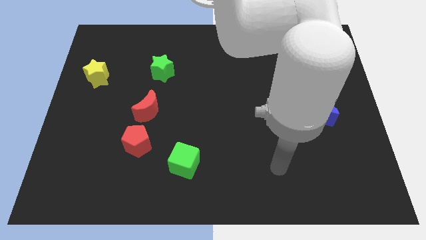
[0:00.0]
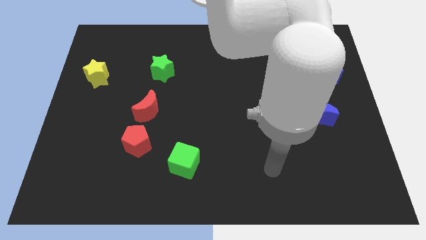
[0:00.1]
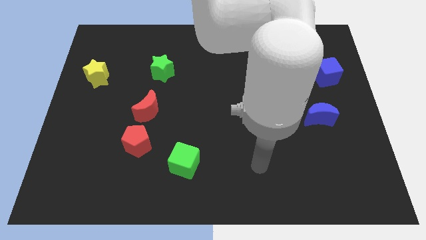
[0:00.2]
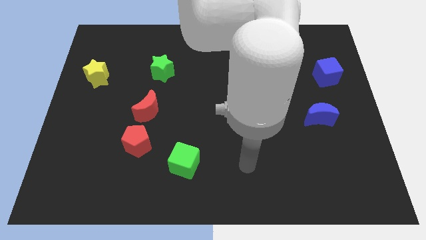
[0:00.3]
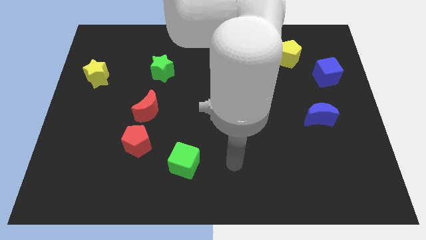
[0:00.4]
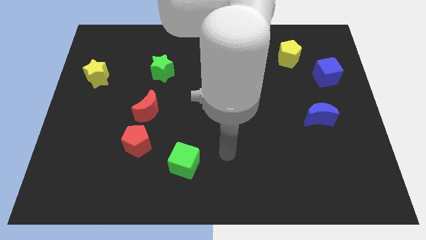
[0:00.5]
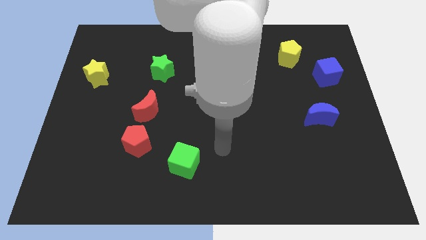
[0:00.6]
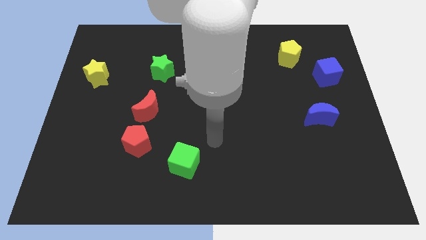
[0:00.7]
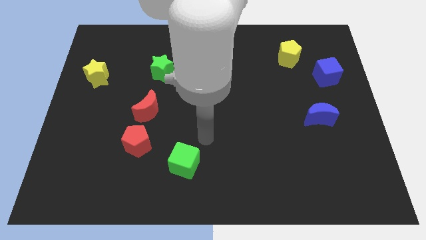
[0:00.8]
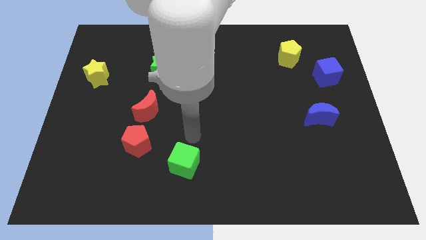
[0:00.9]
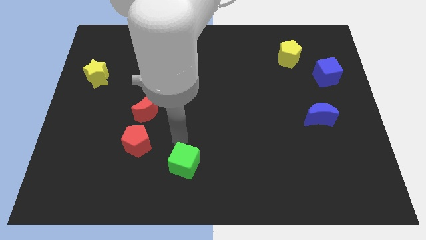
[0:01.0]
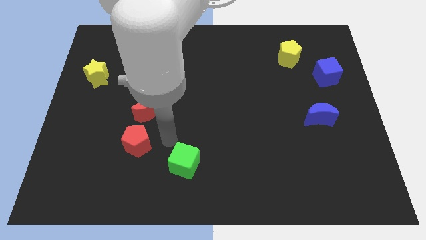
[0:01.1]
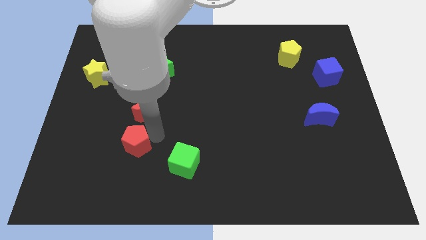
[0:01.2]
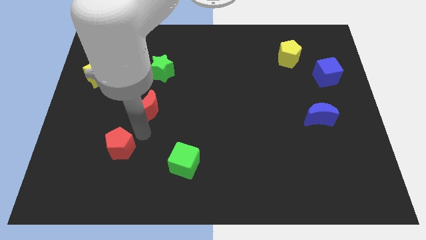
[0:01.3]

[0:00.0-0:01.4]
separate the red moon from the red pentagon

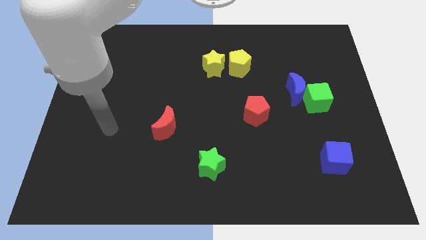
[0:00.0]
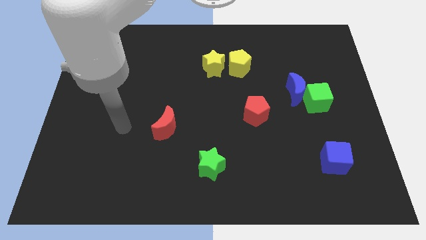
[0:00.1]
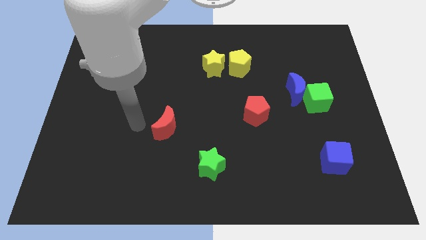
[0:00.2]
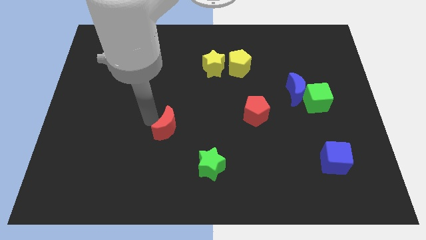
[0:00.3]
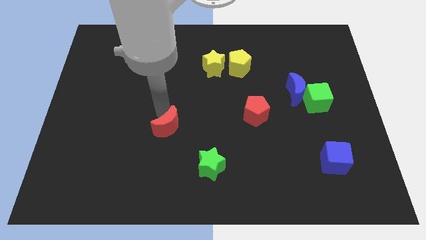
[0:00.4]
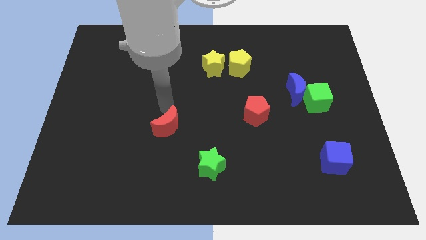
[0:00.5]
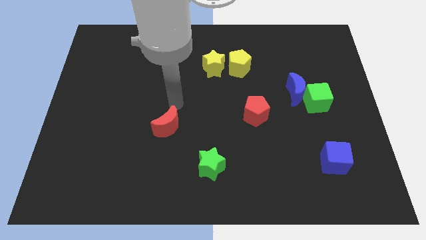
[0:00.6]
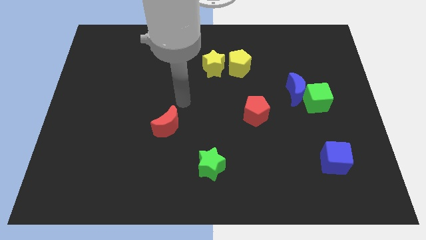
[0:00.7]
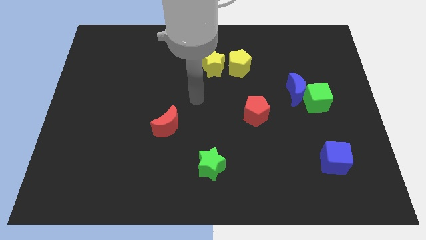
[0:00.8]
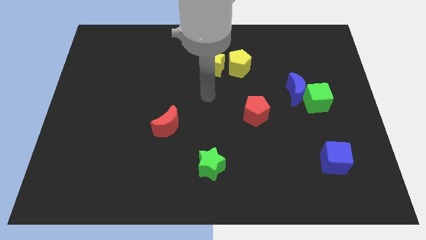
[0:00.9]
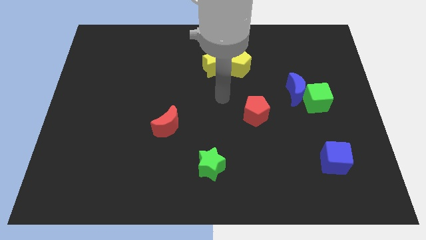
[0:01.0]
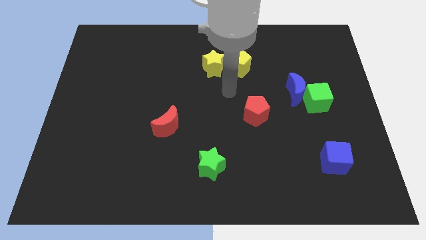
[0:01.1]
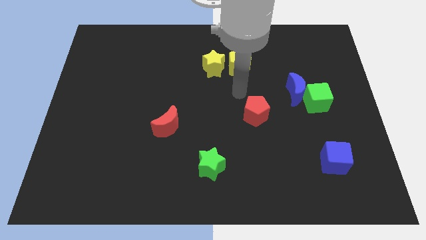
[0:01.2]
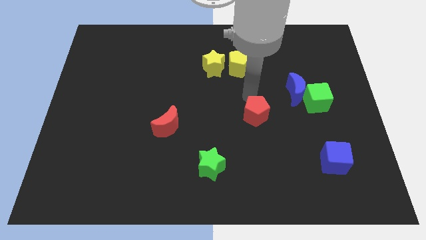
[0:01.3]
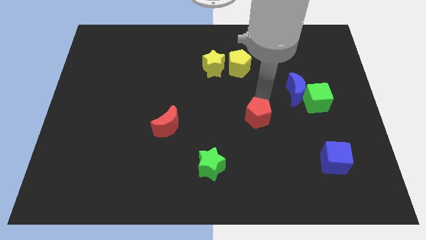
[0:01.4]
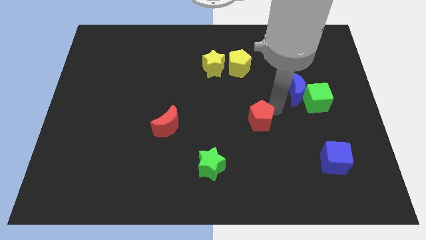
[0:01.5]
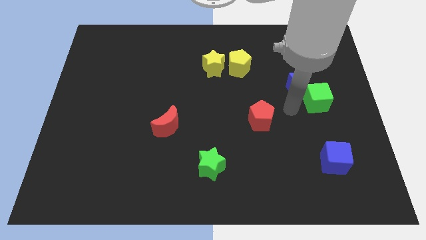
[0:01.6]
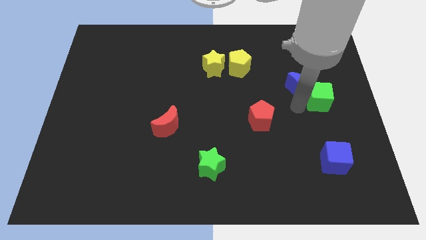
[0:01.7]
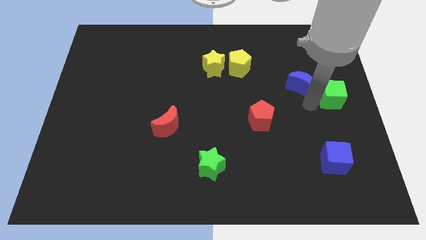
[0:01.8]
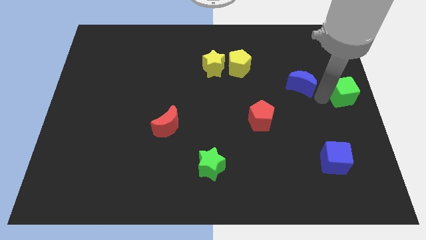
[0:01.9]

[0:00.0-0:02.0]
pull the blue moon apart from the green cube

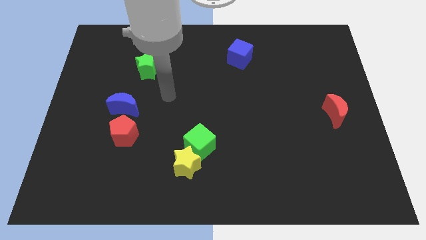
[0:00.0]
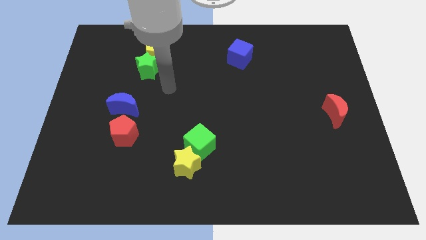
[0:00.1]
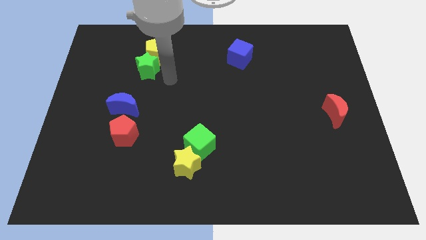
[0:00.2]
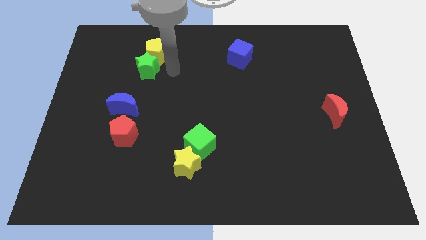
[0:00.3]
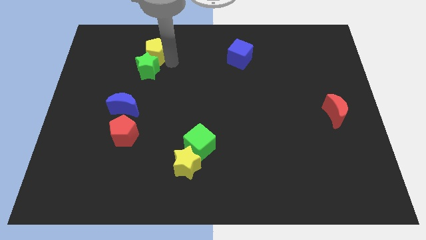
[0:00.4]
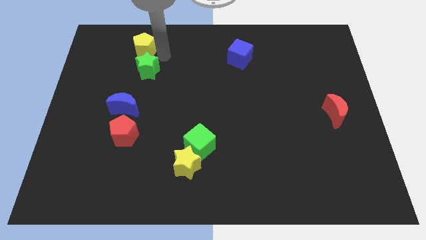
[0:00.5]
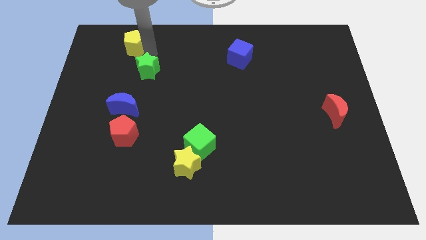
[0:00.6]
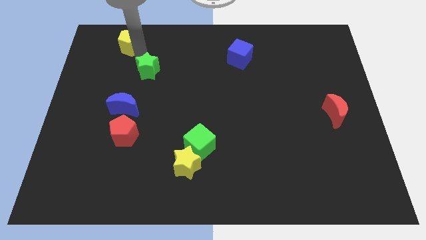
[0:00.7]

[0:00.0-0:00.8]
pull the green star apart from the yellow pentagon

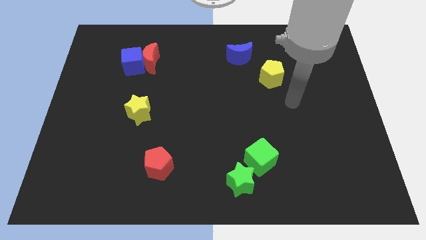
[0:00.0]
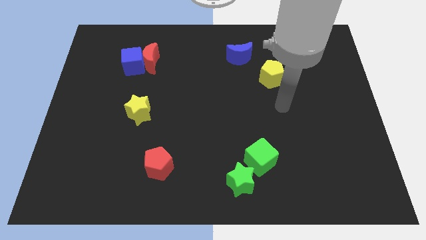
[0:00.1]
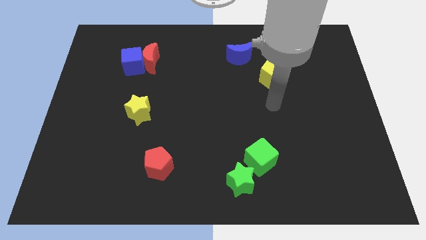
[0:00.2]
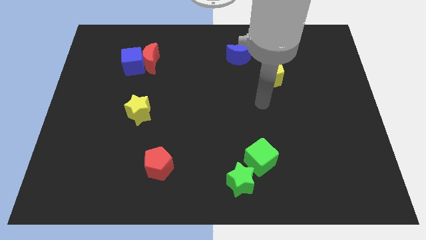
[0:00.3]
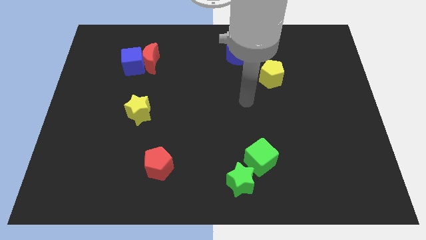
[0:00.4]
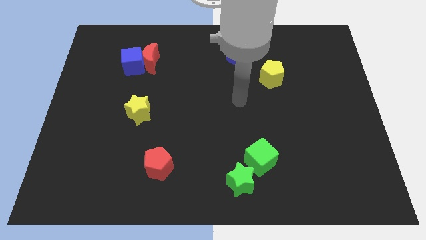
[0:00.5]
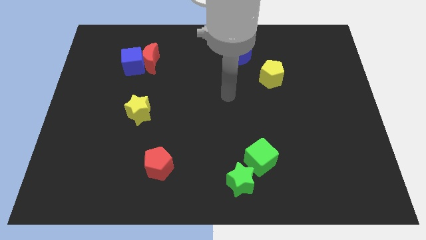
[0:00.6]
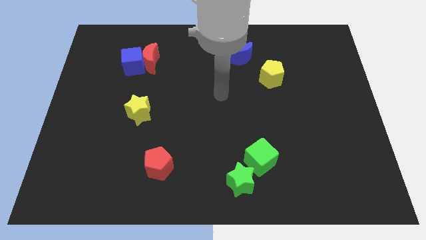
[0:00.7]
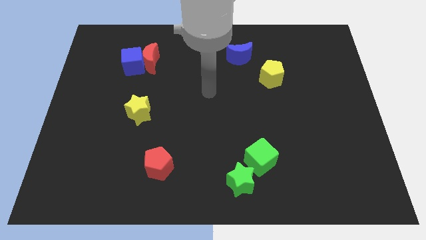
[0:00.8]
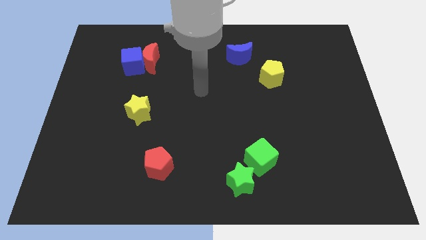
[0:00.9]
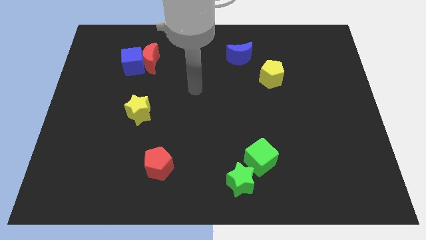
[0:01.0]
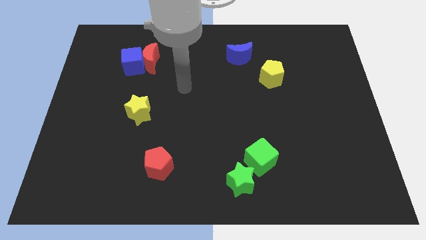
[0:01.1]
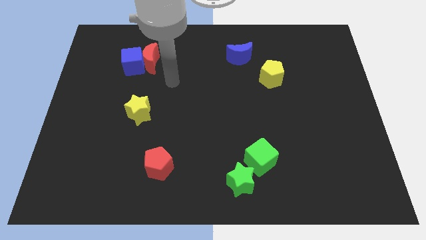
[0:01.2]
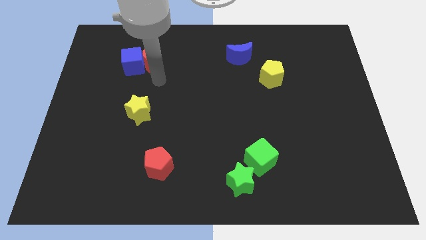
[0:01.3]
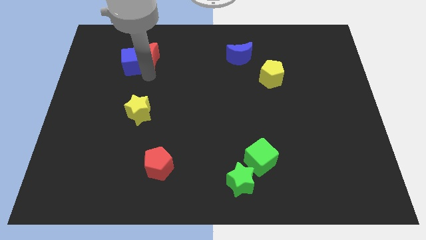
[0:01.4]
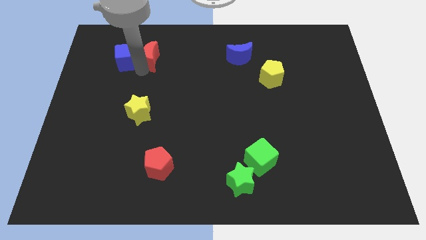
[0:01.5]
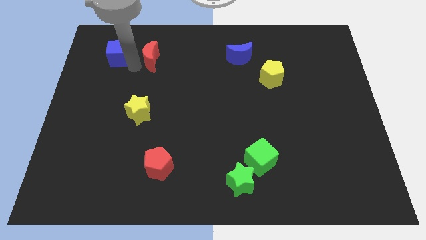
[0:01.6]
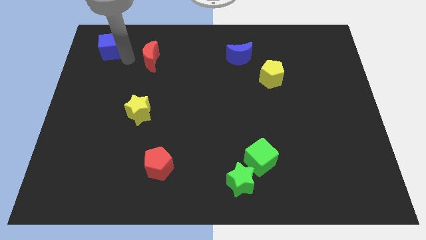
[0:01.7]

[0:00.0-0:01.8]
move the red moon away from the blue cube

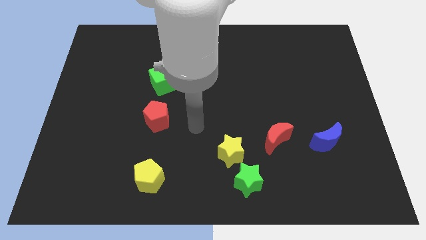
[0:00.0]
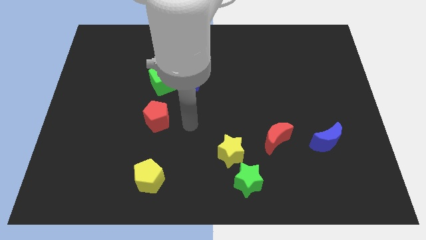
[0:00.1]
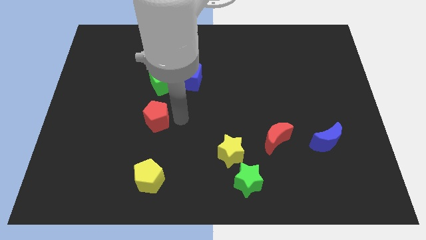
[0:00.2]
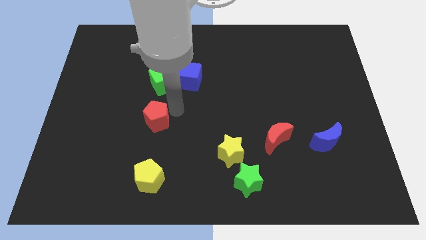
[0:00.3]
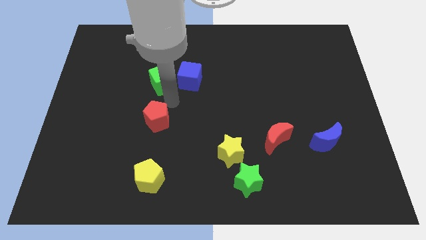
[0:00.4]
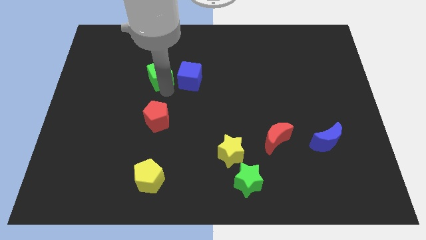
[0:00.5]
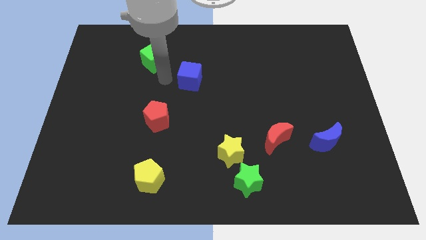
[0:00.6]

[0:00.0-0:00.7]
move the blue cube away from the green cube

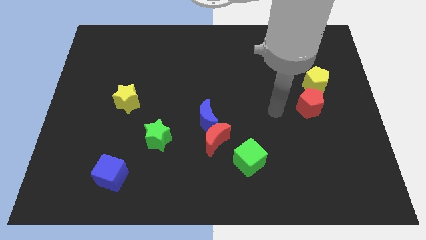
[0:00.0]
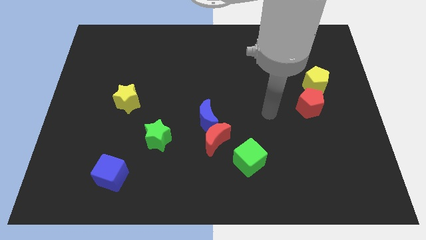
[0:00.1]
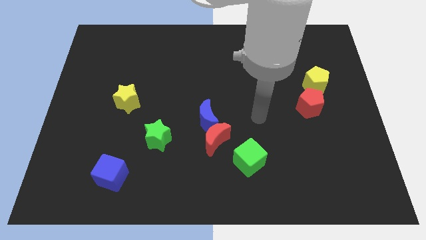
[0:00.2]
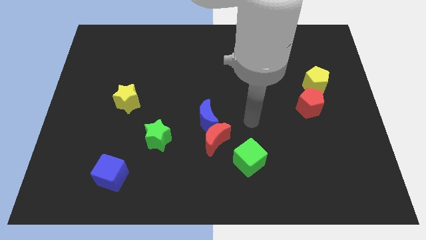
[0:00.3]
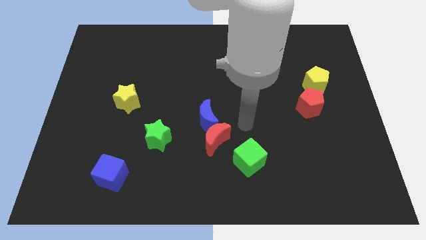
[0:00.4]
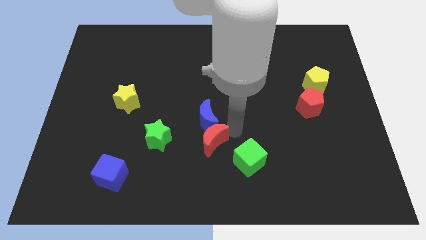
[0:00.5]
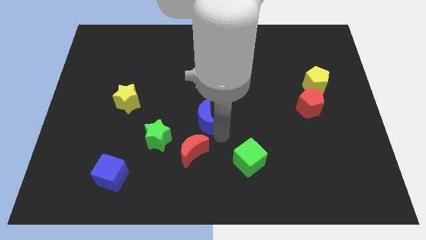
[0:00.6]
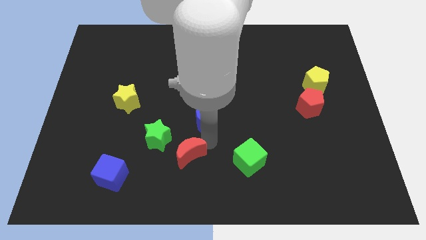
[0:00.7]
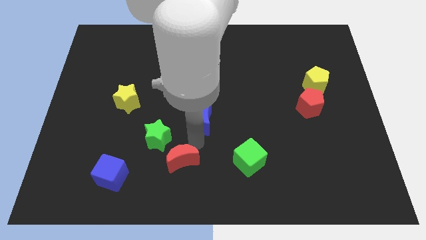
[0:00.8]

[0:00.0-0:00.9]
separate the blue moon from the red moon

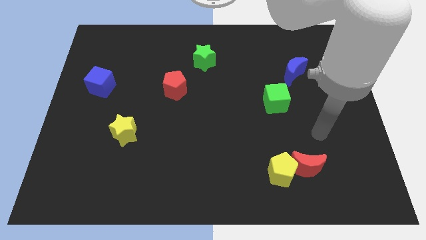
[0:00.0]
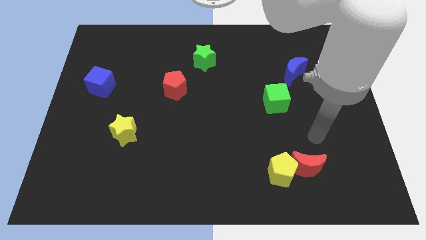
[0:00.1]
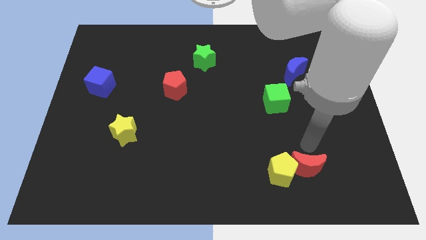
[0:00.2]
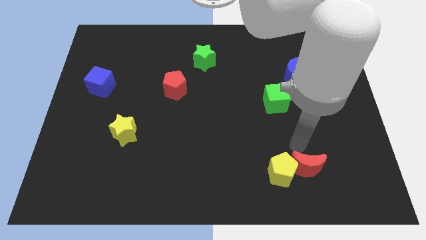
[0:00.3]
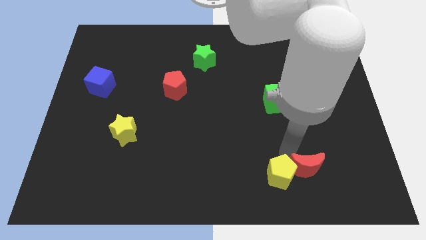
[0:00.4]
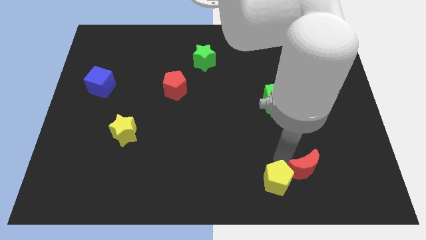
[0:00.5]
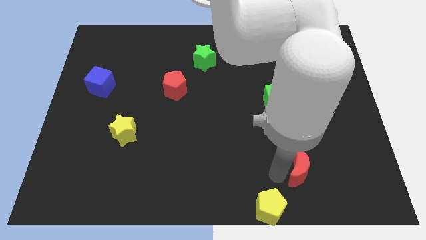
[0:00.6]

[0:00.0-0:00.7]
pull the red moon apart from the yellow pentagon

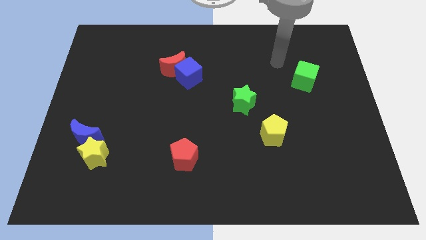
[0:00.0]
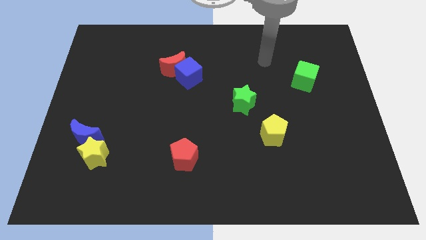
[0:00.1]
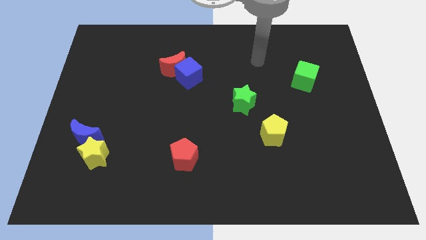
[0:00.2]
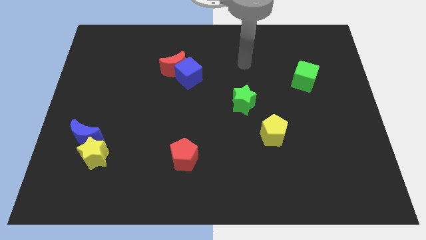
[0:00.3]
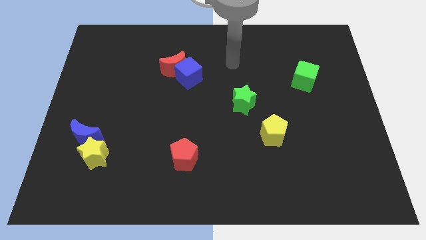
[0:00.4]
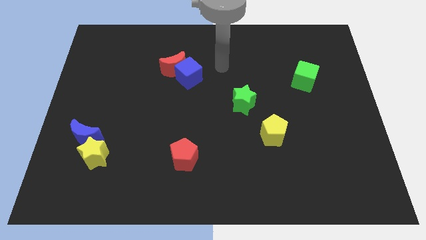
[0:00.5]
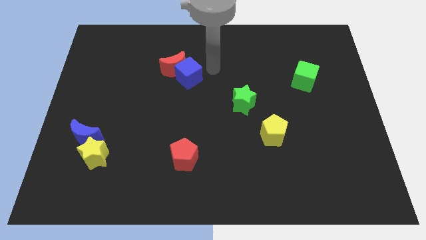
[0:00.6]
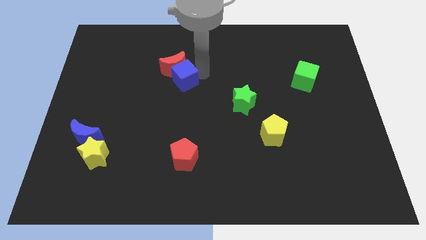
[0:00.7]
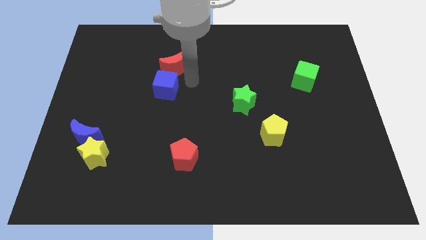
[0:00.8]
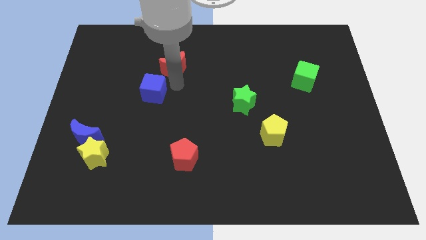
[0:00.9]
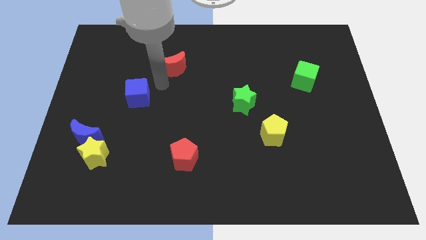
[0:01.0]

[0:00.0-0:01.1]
separate the red moon from the blue cube
